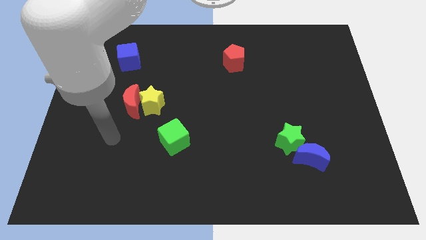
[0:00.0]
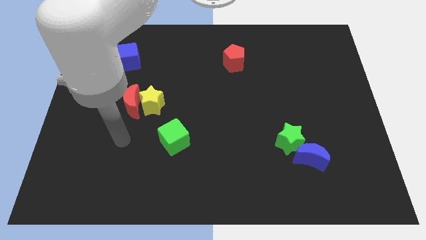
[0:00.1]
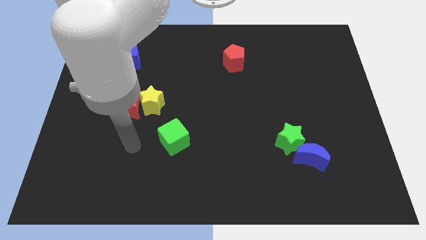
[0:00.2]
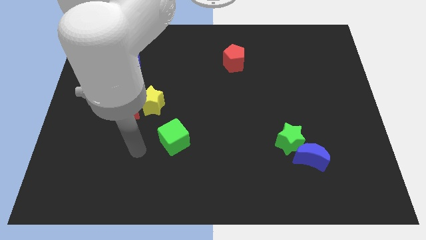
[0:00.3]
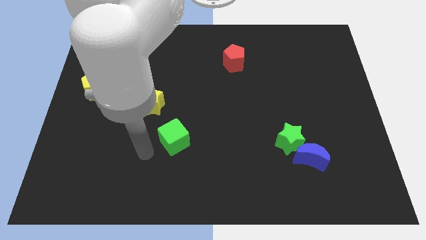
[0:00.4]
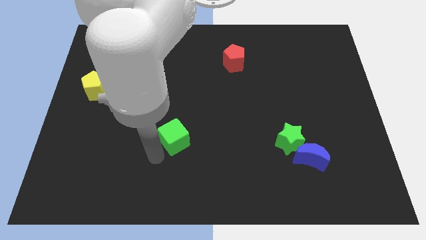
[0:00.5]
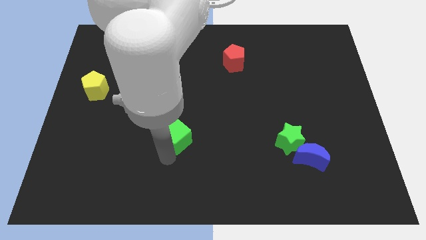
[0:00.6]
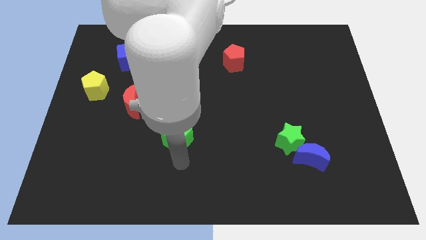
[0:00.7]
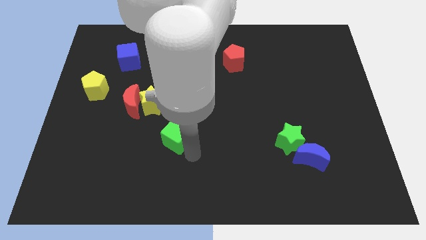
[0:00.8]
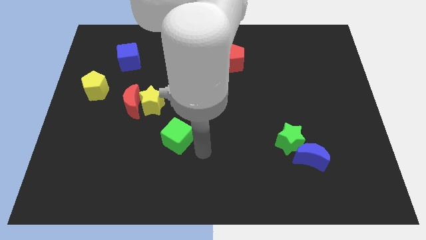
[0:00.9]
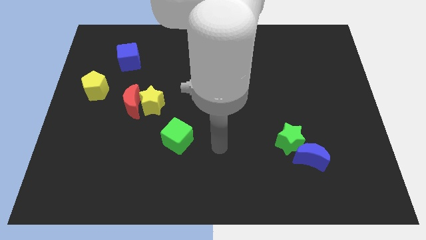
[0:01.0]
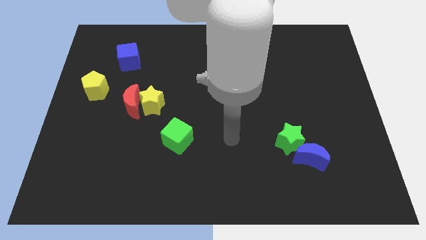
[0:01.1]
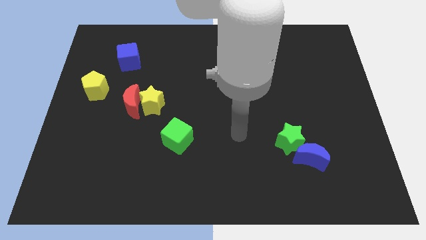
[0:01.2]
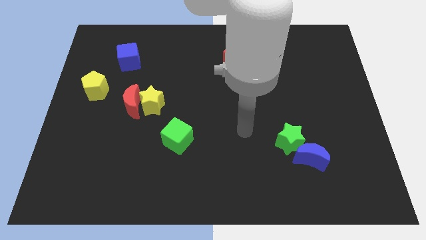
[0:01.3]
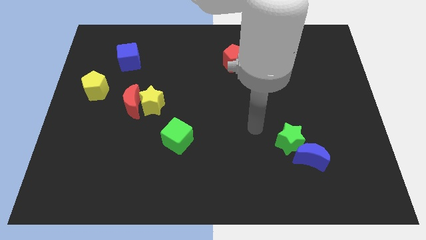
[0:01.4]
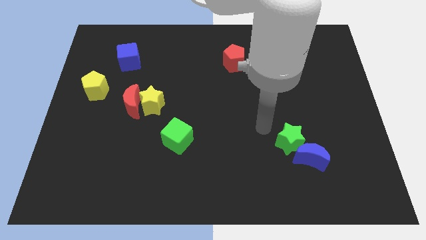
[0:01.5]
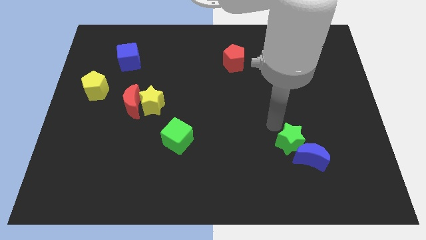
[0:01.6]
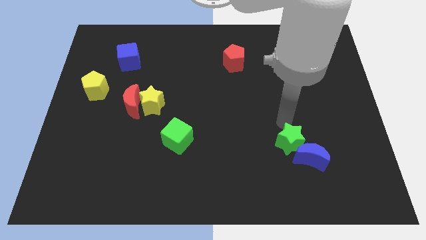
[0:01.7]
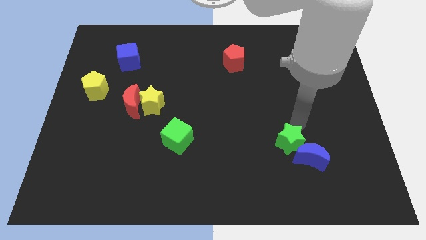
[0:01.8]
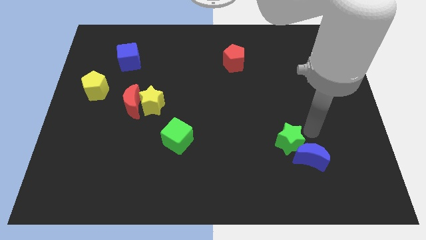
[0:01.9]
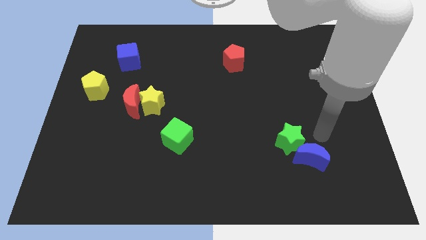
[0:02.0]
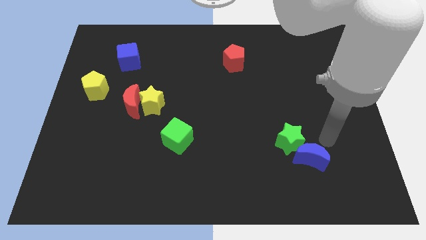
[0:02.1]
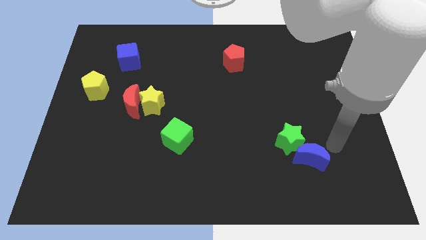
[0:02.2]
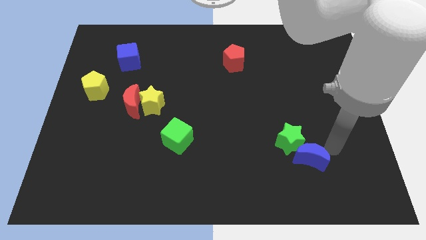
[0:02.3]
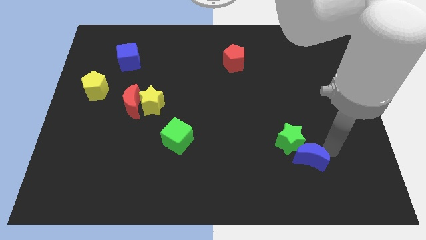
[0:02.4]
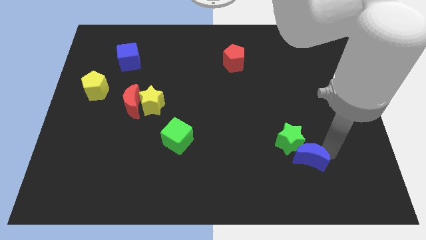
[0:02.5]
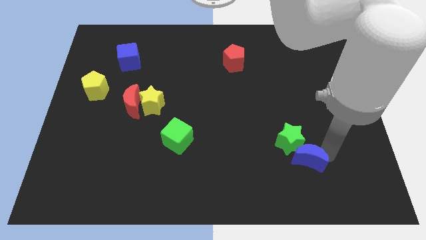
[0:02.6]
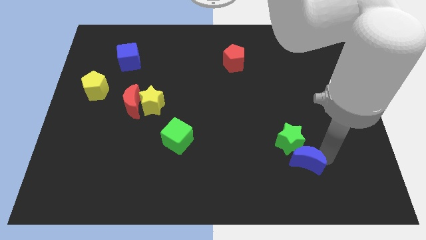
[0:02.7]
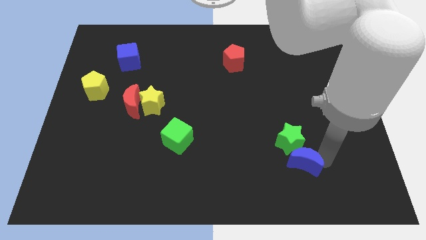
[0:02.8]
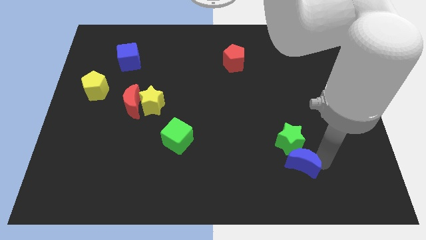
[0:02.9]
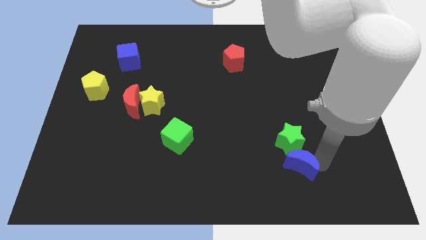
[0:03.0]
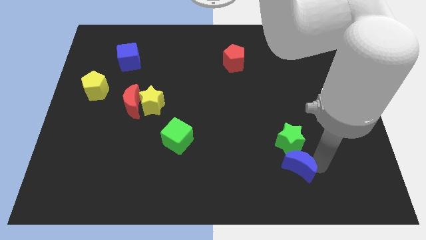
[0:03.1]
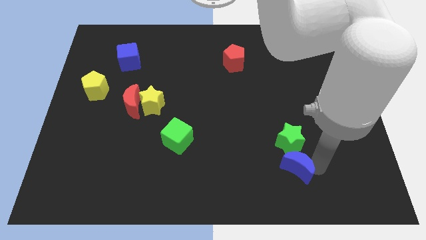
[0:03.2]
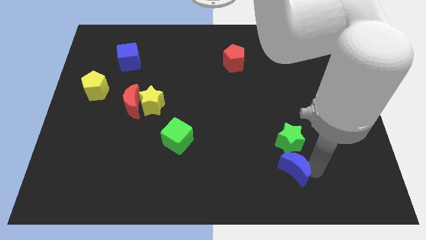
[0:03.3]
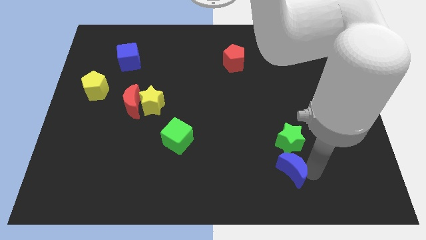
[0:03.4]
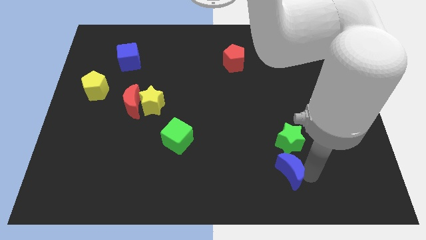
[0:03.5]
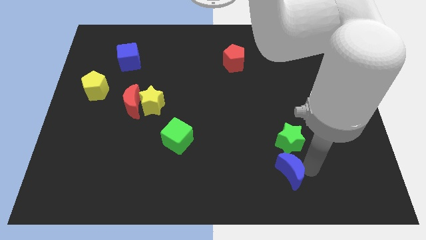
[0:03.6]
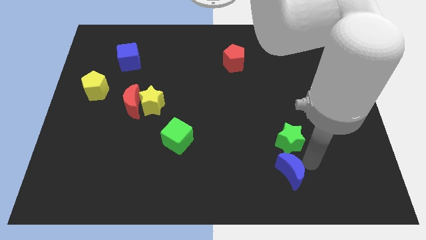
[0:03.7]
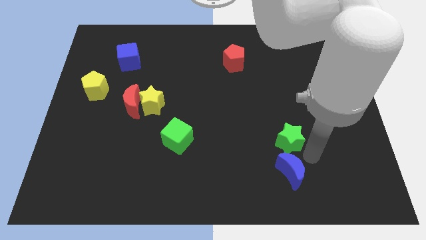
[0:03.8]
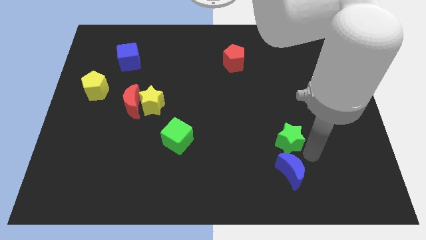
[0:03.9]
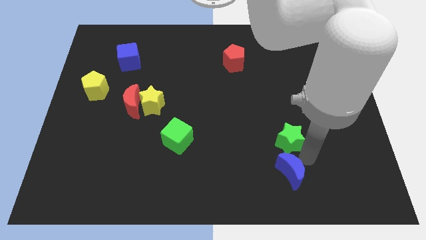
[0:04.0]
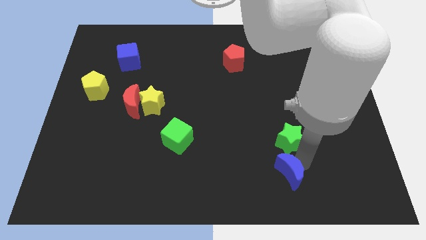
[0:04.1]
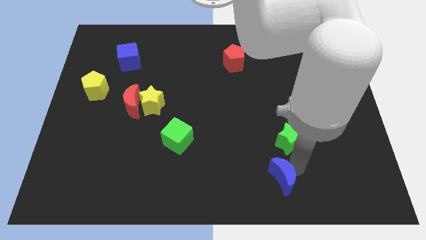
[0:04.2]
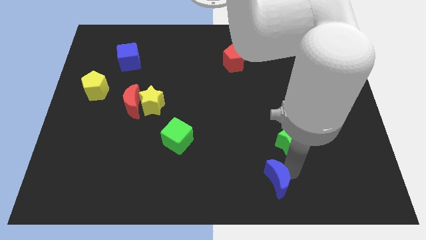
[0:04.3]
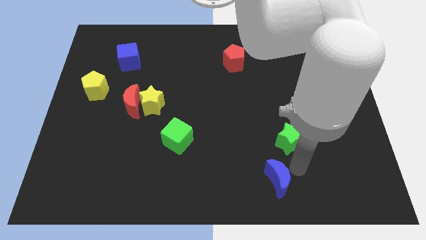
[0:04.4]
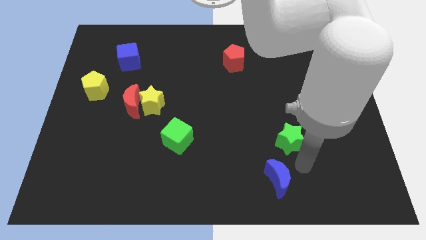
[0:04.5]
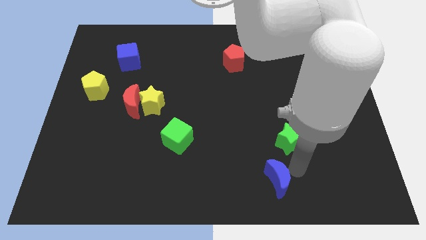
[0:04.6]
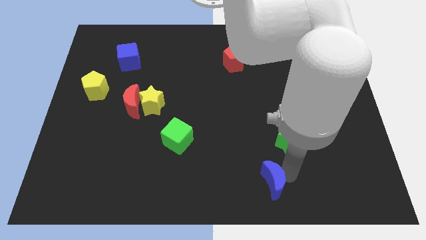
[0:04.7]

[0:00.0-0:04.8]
move the blue moon to the bottom side

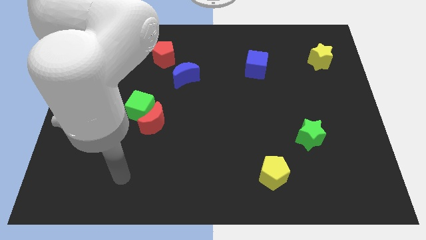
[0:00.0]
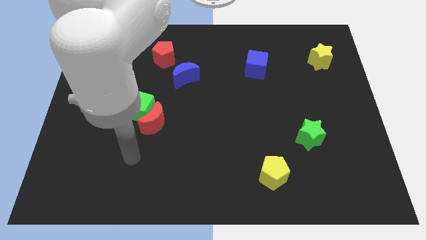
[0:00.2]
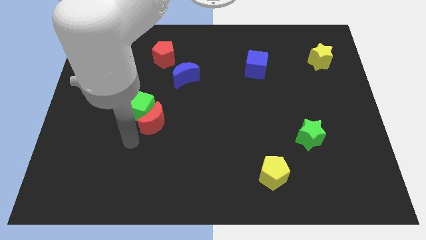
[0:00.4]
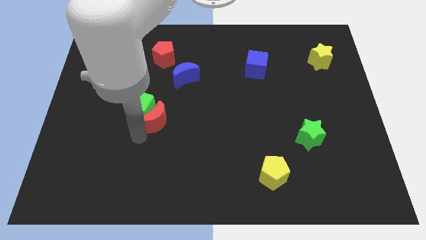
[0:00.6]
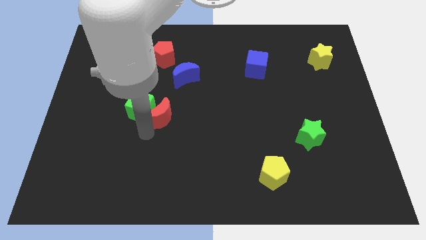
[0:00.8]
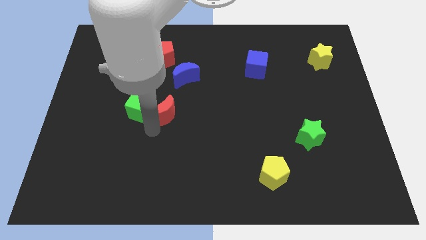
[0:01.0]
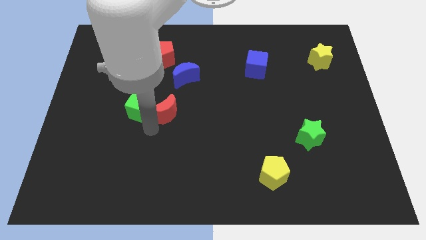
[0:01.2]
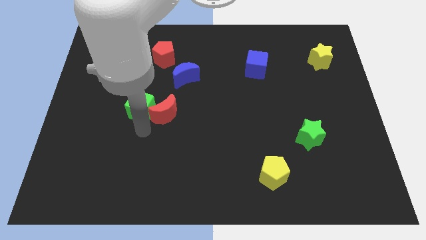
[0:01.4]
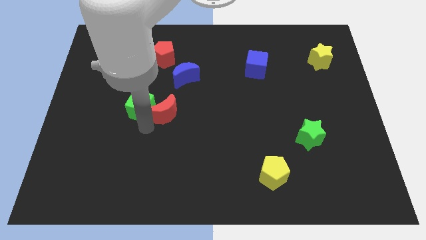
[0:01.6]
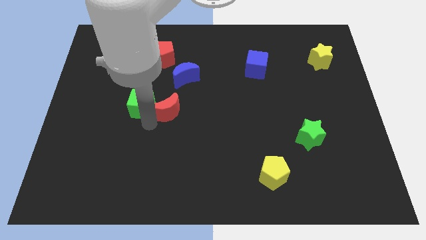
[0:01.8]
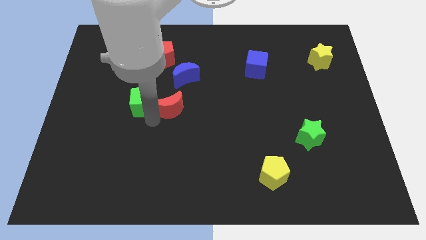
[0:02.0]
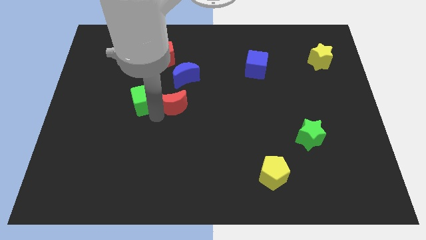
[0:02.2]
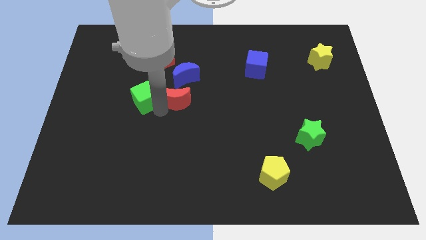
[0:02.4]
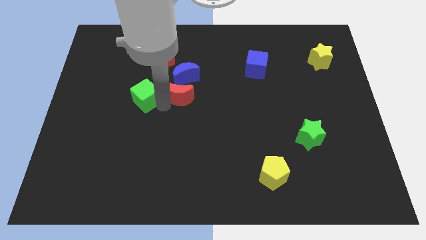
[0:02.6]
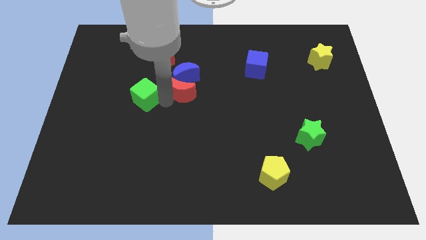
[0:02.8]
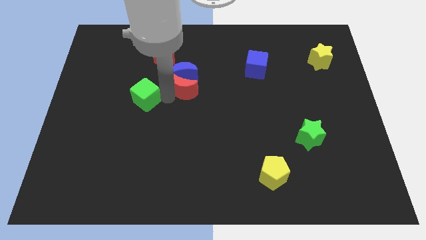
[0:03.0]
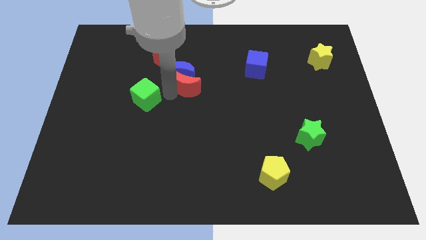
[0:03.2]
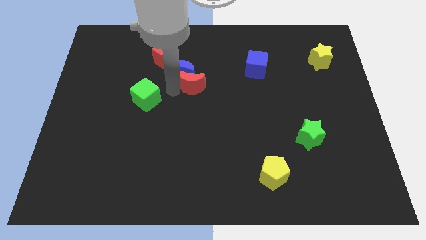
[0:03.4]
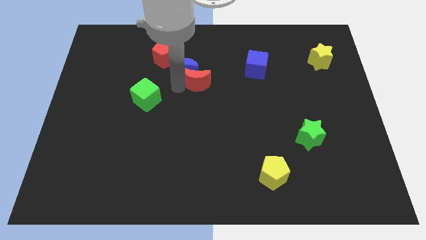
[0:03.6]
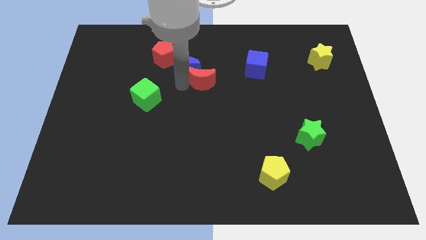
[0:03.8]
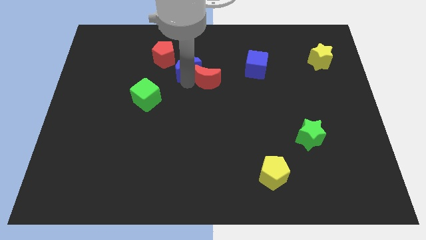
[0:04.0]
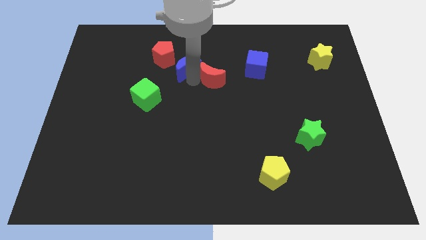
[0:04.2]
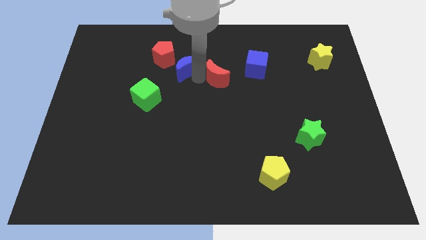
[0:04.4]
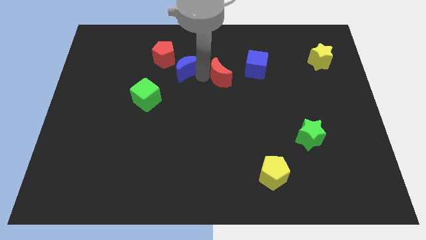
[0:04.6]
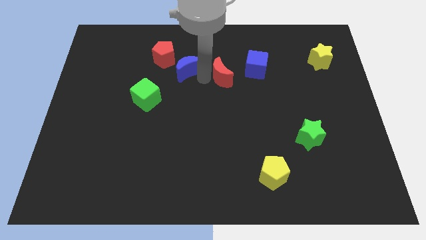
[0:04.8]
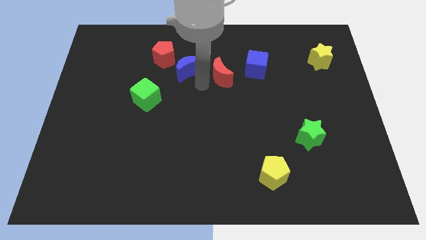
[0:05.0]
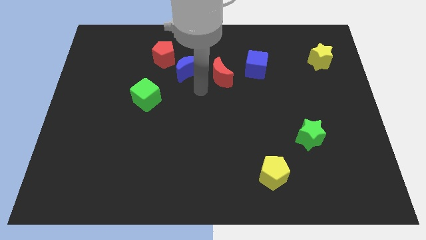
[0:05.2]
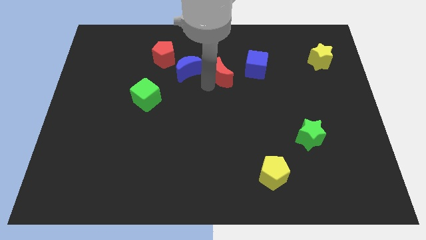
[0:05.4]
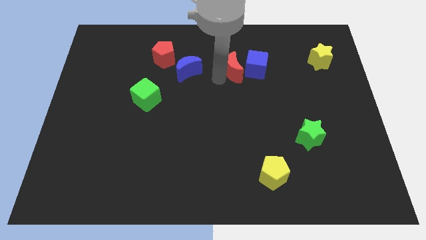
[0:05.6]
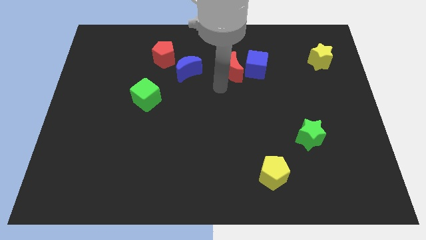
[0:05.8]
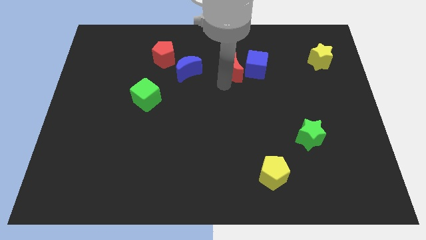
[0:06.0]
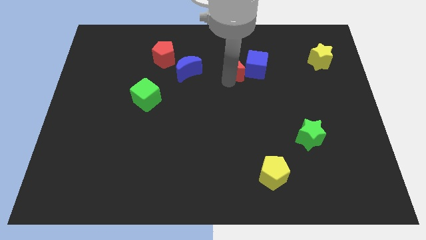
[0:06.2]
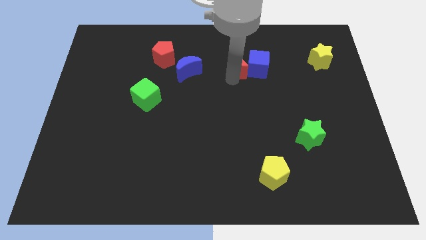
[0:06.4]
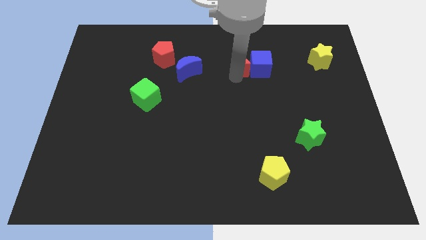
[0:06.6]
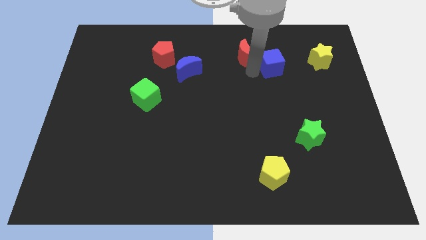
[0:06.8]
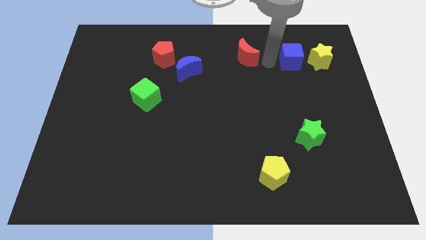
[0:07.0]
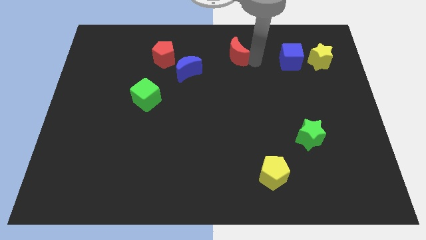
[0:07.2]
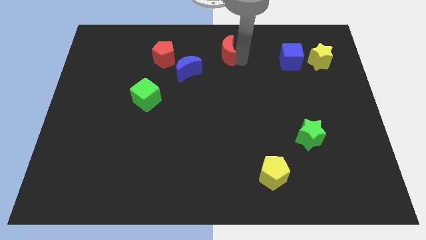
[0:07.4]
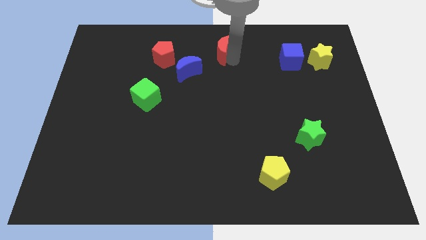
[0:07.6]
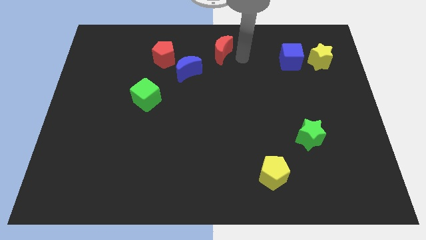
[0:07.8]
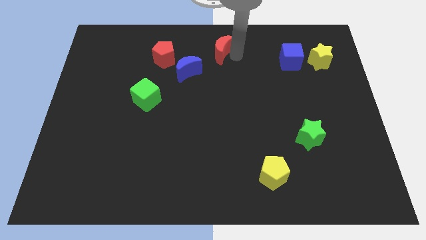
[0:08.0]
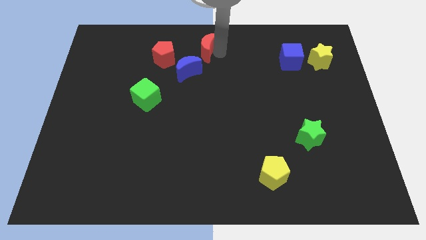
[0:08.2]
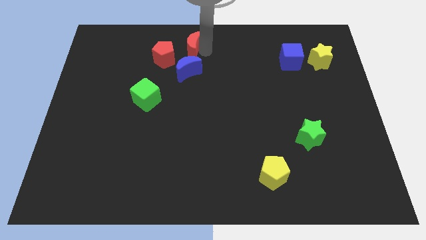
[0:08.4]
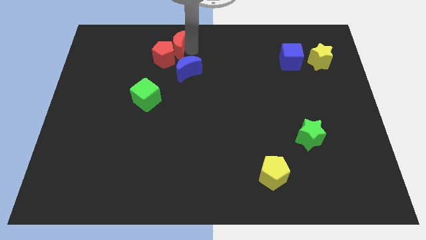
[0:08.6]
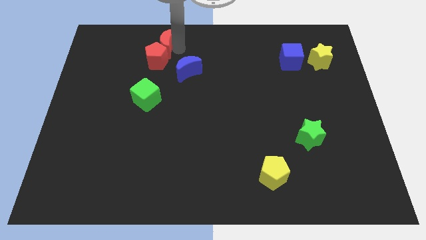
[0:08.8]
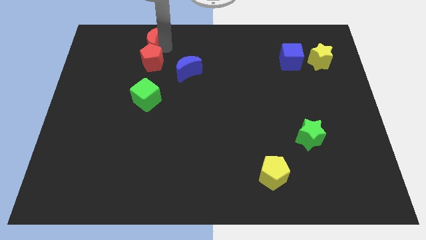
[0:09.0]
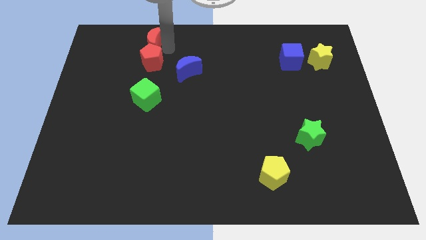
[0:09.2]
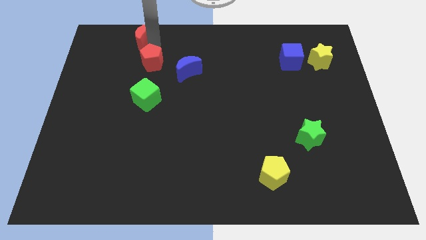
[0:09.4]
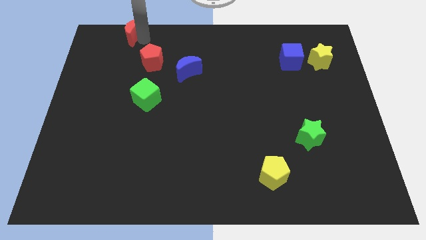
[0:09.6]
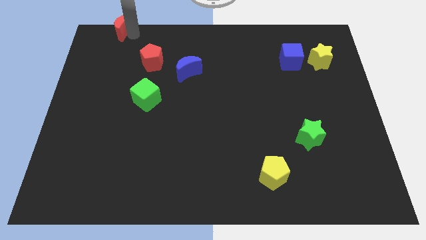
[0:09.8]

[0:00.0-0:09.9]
put the red moon to the top left corner
